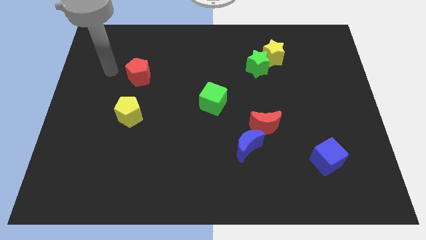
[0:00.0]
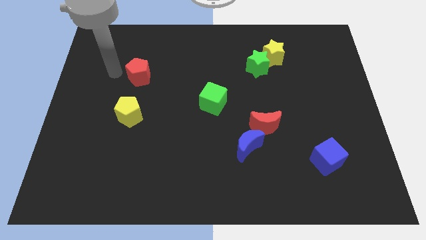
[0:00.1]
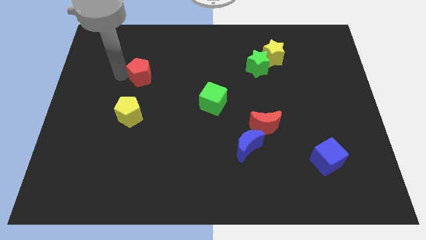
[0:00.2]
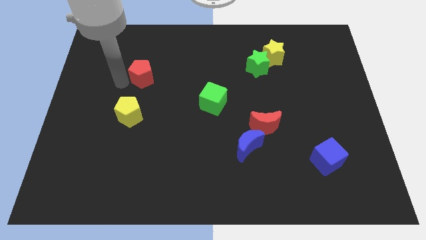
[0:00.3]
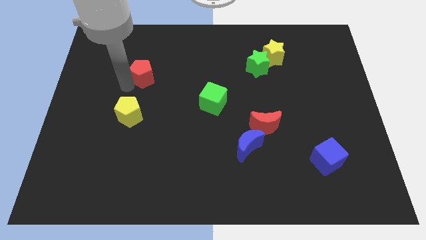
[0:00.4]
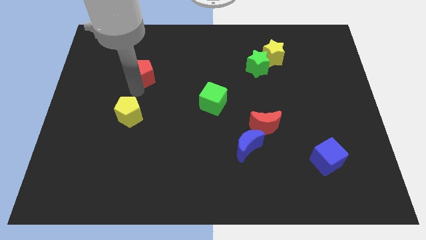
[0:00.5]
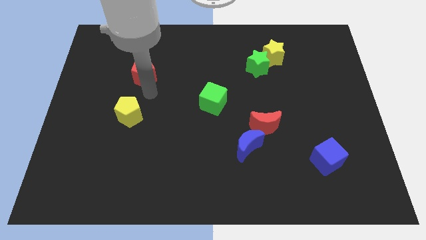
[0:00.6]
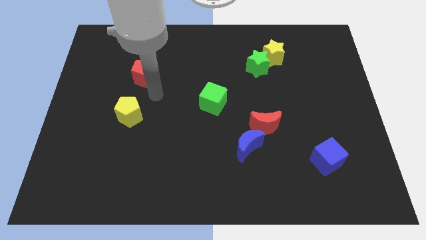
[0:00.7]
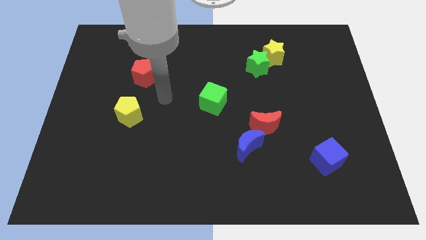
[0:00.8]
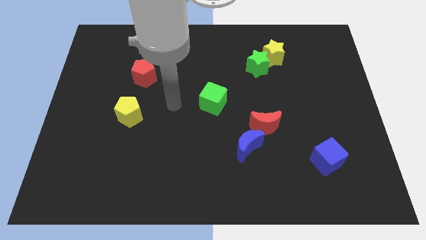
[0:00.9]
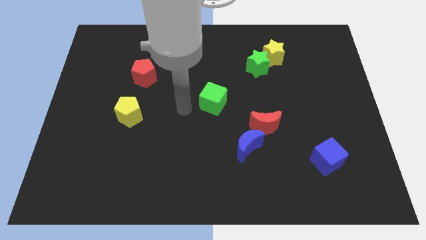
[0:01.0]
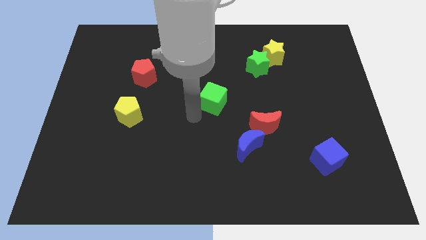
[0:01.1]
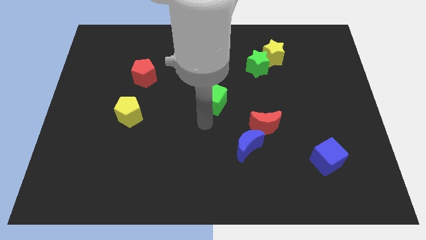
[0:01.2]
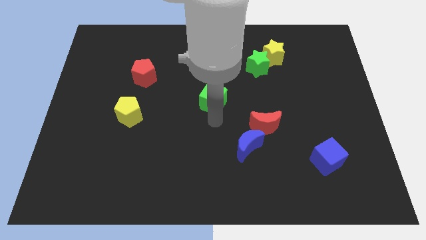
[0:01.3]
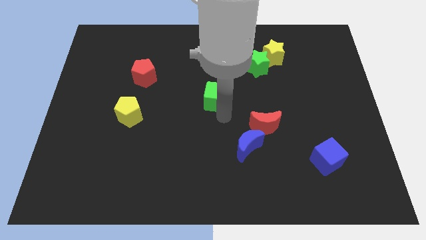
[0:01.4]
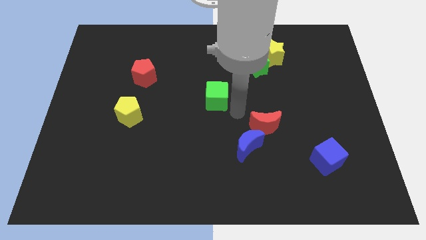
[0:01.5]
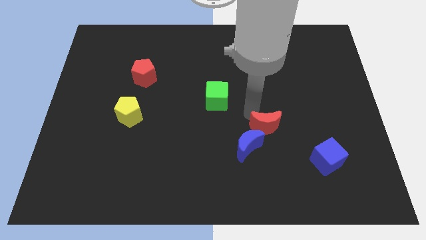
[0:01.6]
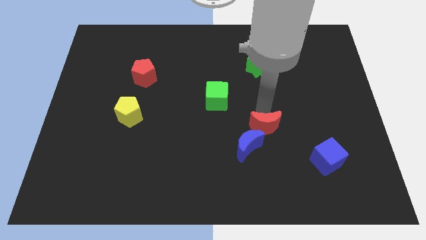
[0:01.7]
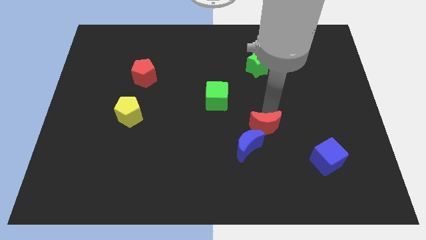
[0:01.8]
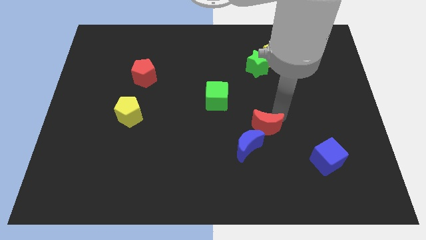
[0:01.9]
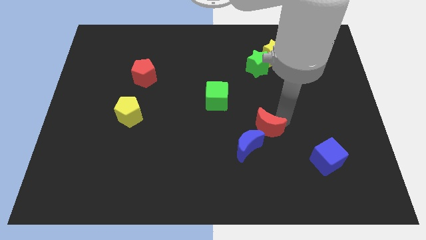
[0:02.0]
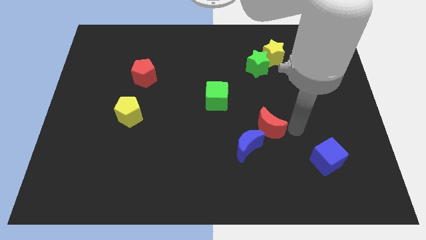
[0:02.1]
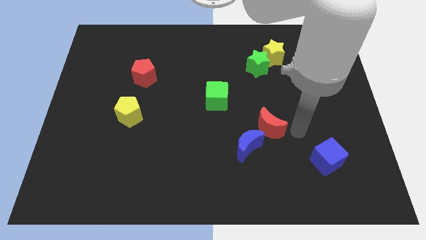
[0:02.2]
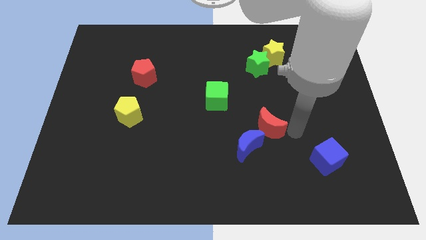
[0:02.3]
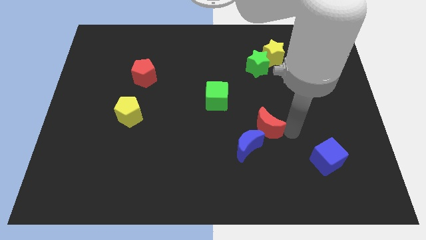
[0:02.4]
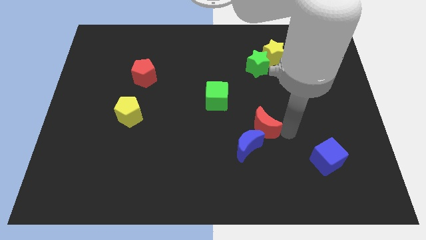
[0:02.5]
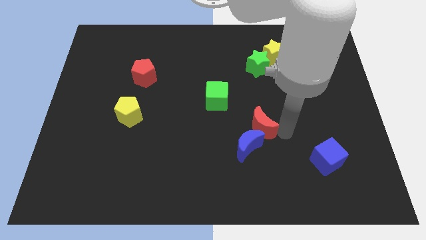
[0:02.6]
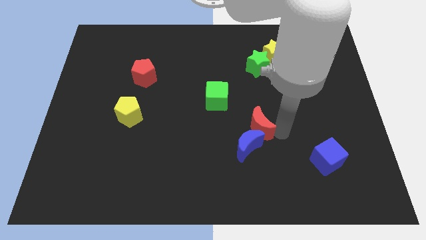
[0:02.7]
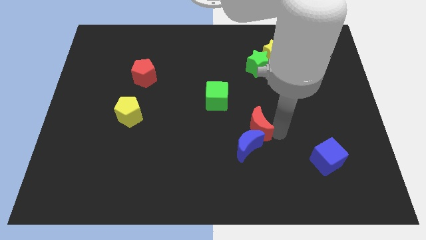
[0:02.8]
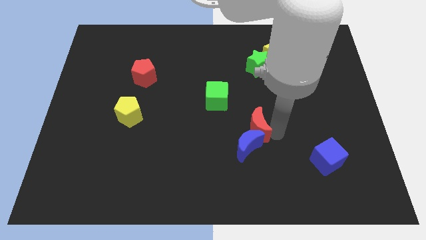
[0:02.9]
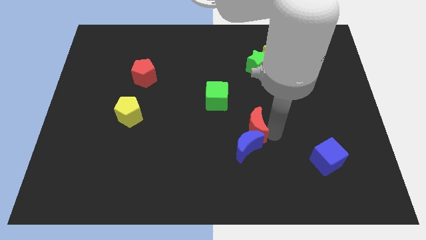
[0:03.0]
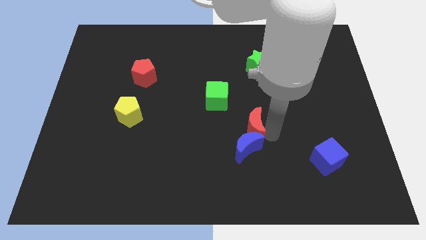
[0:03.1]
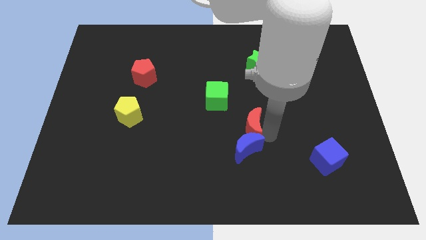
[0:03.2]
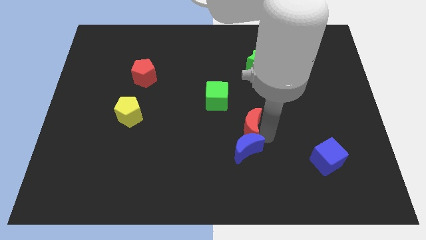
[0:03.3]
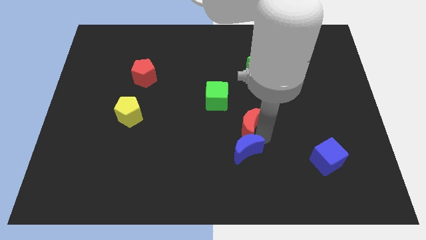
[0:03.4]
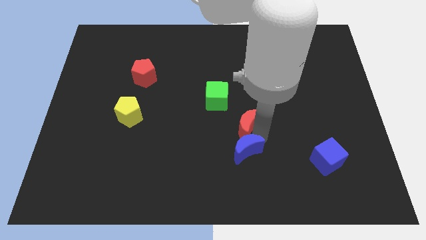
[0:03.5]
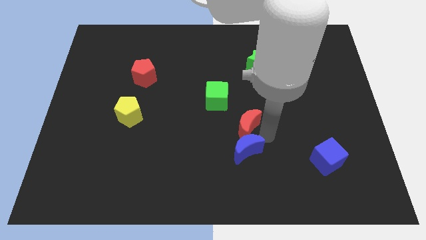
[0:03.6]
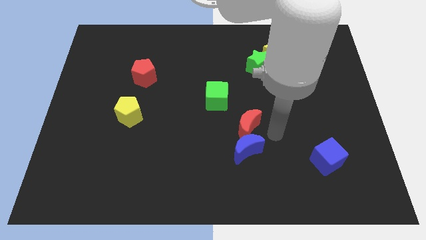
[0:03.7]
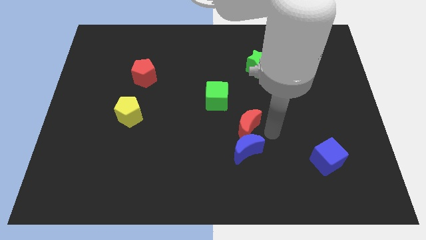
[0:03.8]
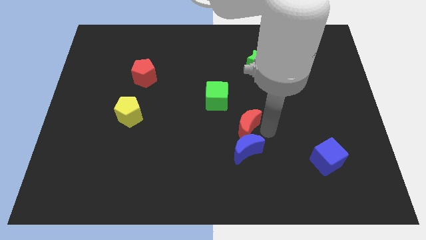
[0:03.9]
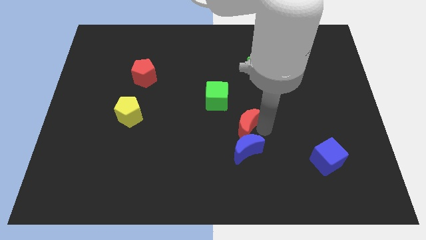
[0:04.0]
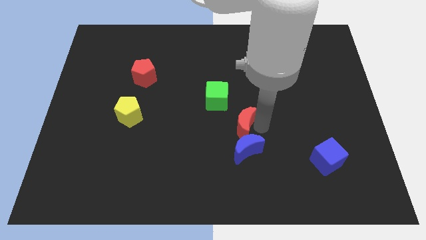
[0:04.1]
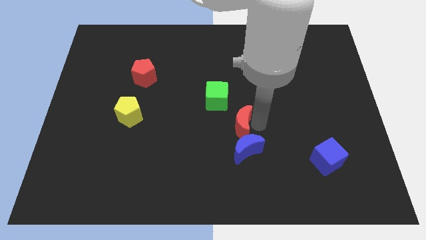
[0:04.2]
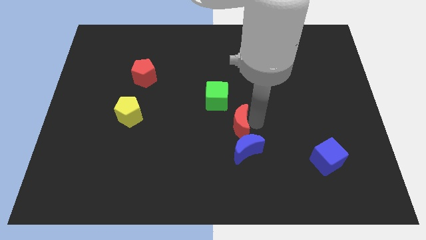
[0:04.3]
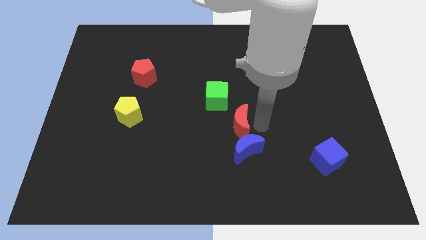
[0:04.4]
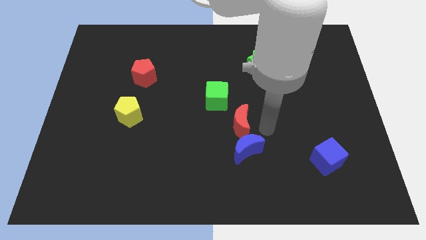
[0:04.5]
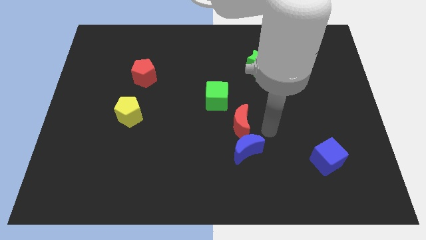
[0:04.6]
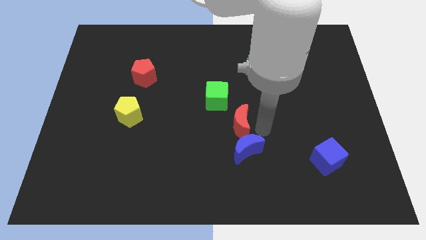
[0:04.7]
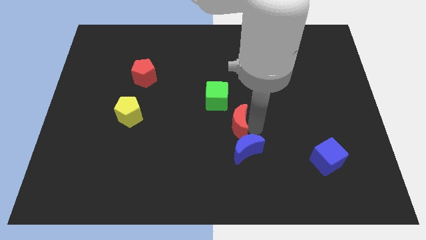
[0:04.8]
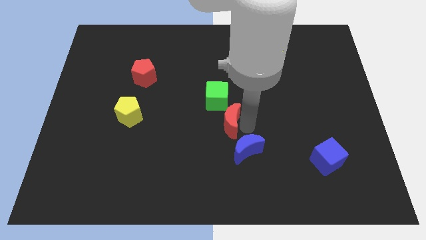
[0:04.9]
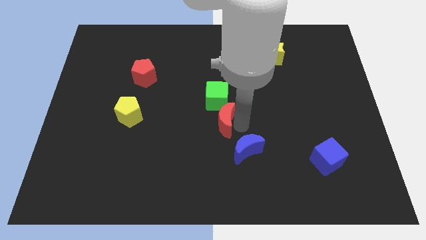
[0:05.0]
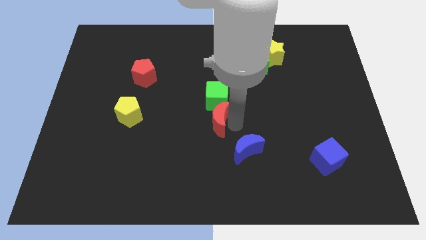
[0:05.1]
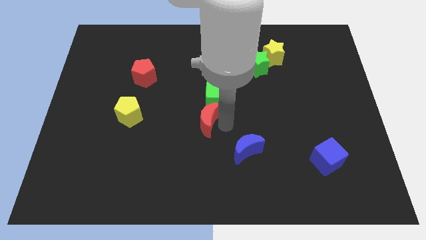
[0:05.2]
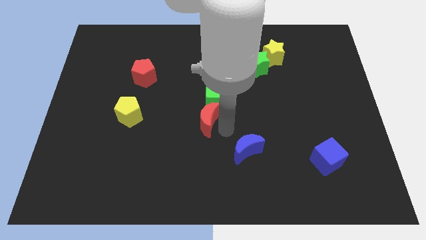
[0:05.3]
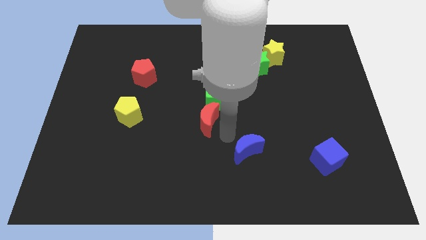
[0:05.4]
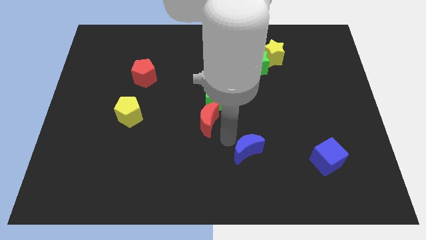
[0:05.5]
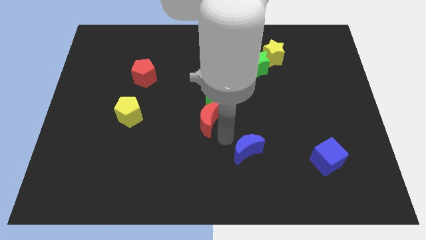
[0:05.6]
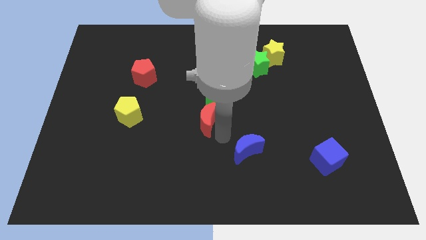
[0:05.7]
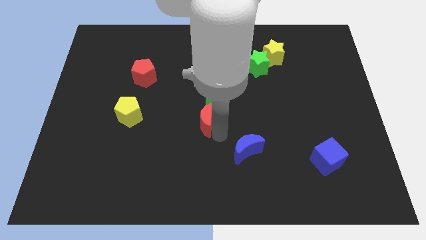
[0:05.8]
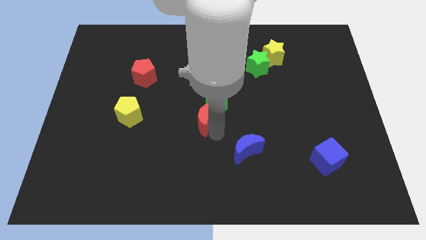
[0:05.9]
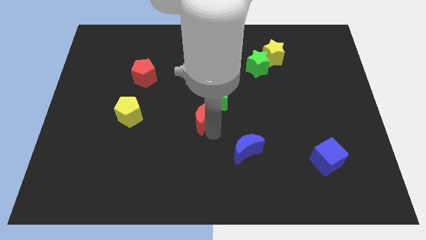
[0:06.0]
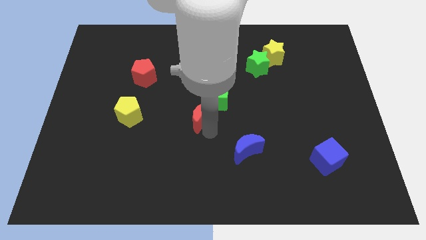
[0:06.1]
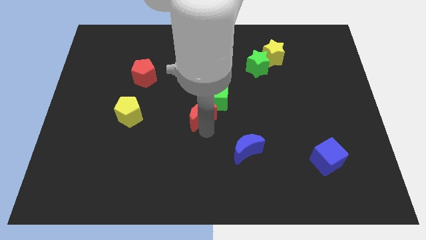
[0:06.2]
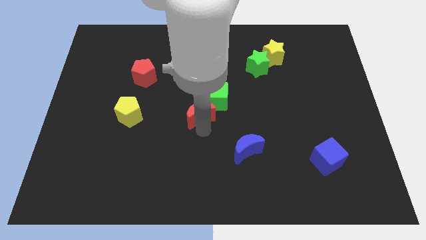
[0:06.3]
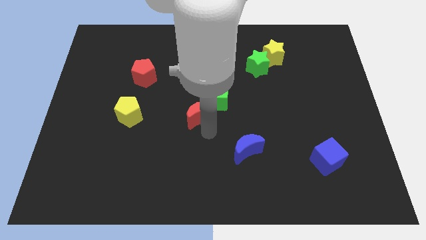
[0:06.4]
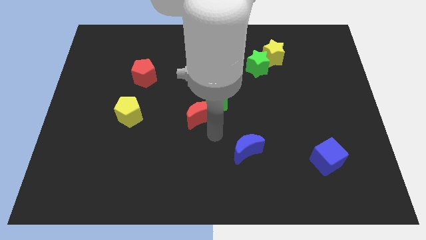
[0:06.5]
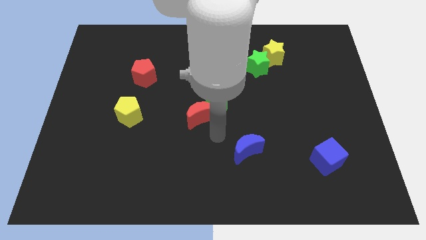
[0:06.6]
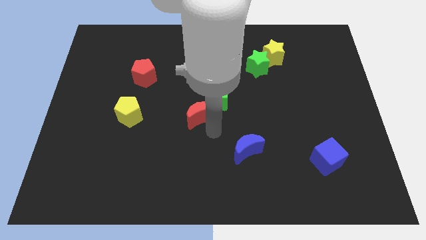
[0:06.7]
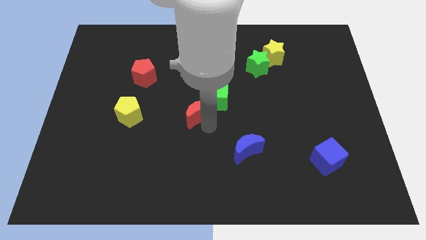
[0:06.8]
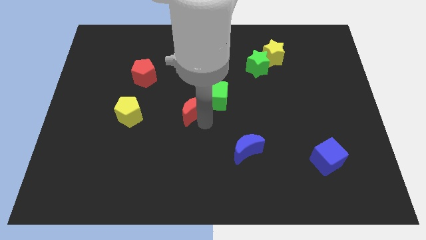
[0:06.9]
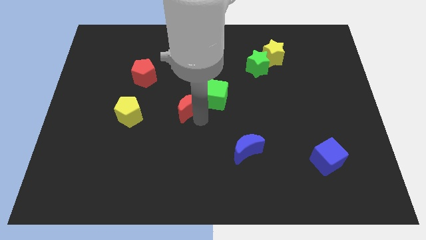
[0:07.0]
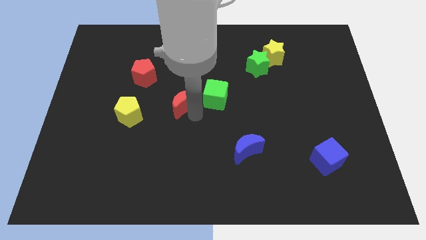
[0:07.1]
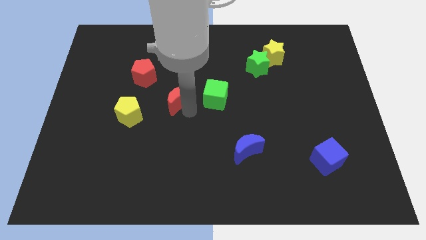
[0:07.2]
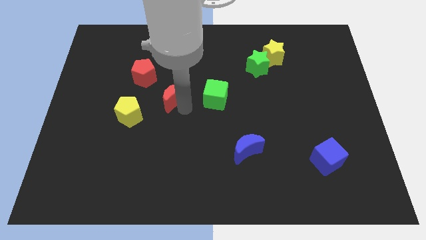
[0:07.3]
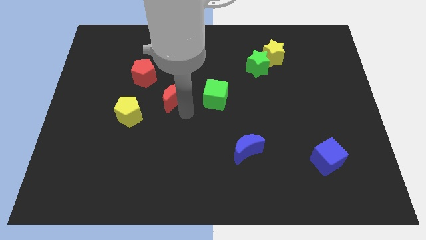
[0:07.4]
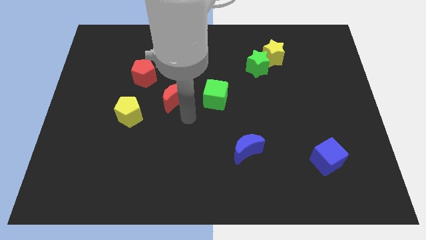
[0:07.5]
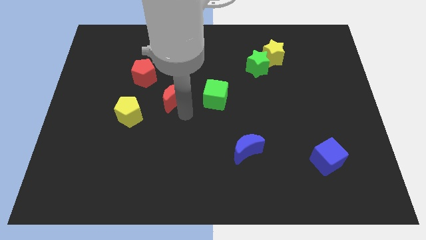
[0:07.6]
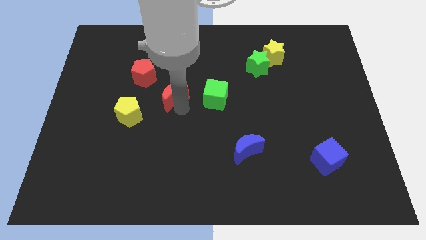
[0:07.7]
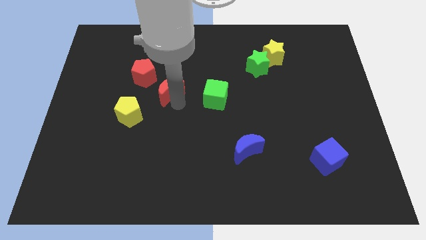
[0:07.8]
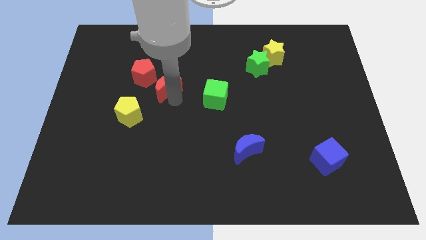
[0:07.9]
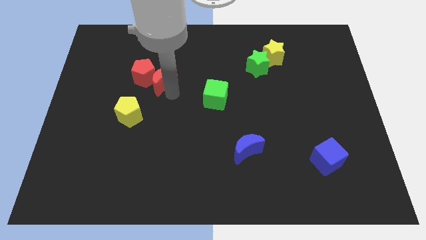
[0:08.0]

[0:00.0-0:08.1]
put the red moon to the red pentagon

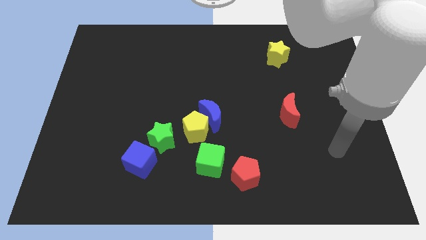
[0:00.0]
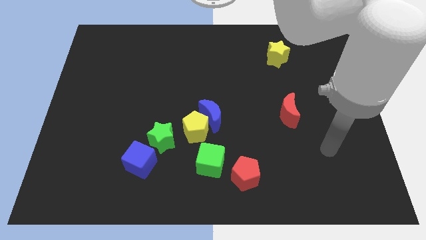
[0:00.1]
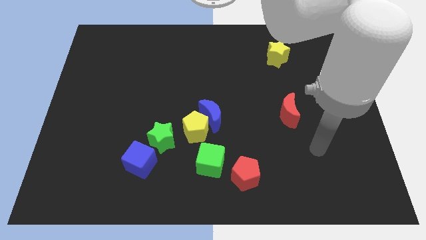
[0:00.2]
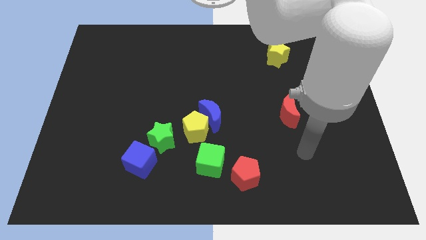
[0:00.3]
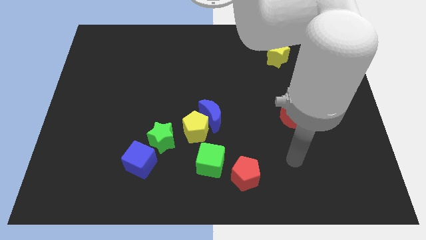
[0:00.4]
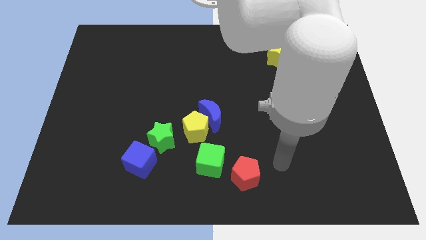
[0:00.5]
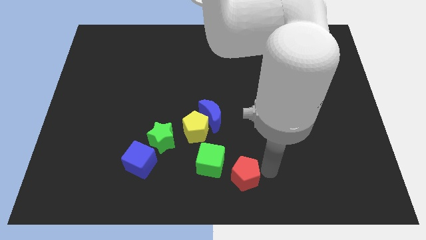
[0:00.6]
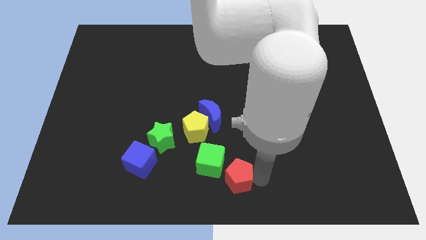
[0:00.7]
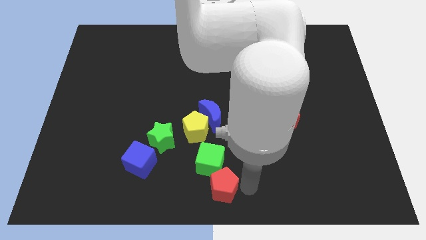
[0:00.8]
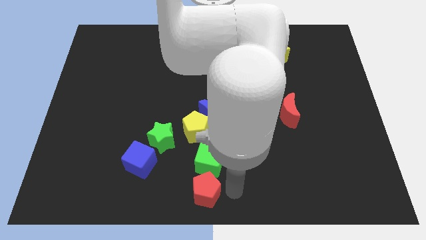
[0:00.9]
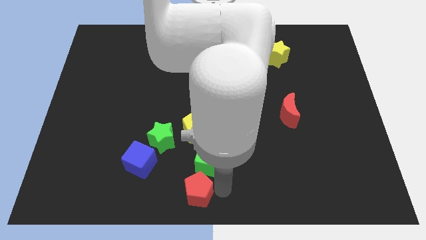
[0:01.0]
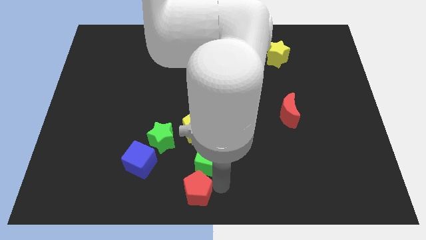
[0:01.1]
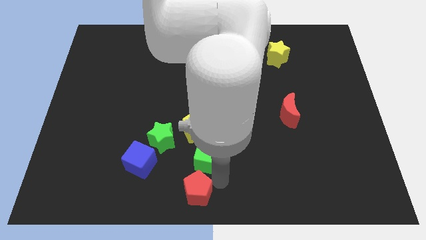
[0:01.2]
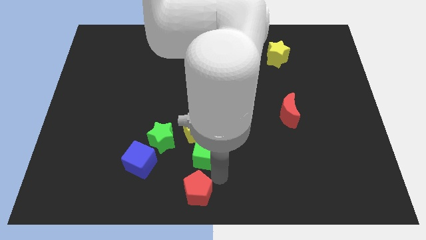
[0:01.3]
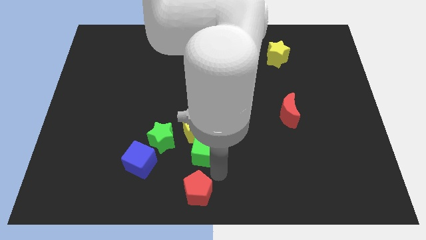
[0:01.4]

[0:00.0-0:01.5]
push the green cube next to the yellow pentagon
